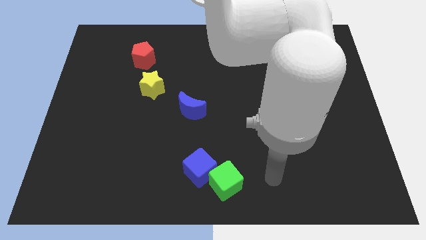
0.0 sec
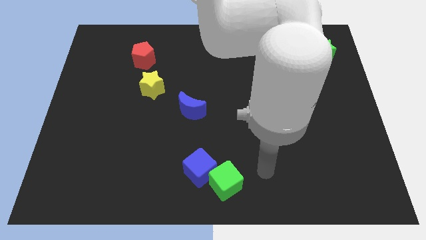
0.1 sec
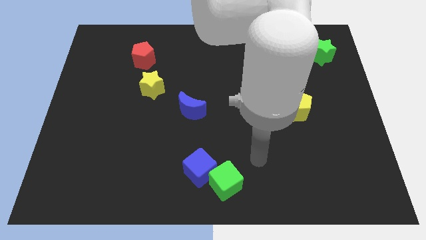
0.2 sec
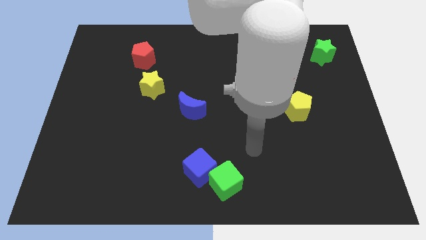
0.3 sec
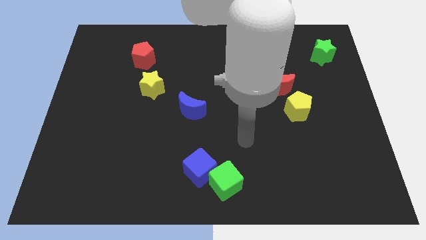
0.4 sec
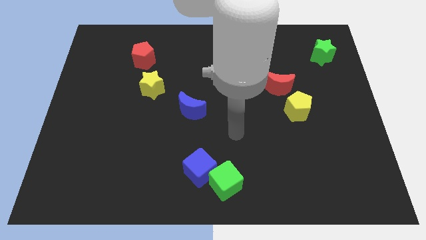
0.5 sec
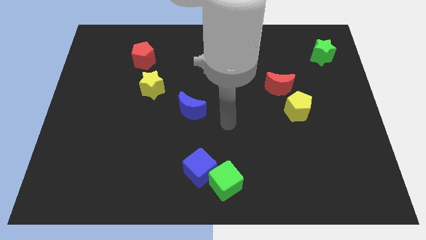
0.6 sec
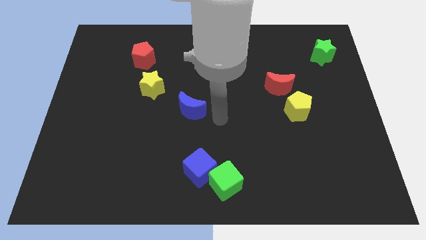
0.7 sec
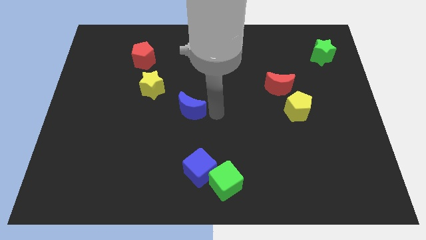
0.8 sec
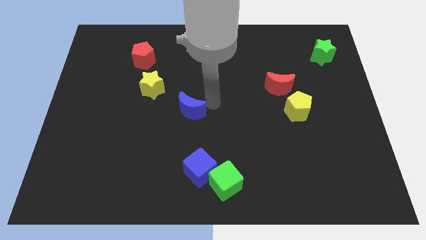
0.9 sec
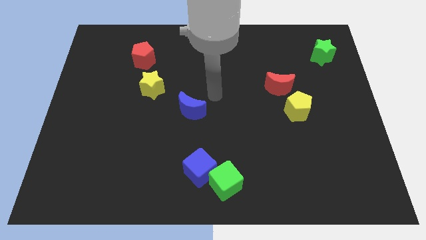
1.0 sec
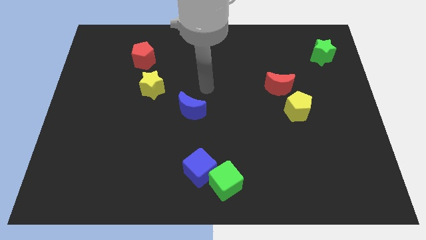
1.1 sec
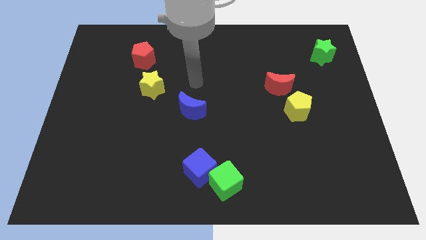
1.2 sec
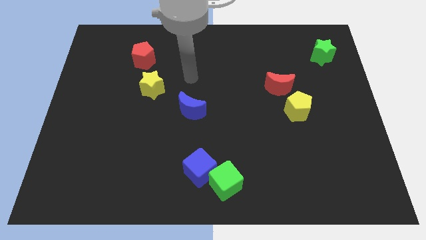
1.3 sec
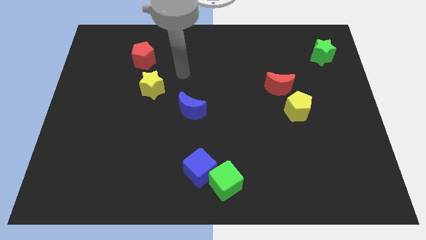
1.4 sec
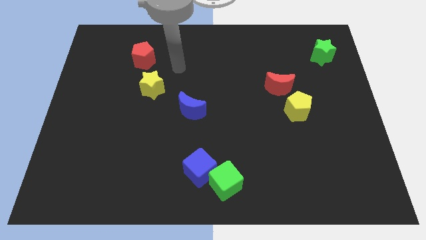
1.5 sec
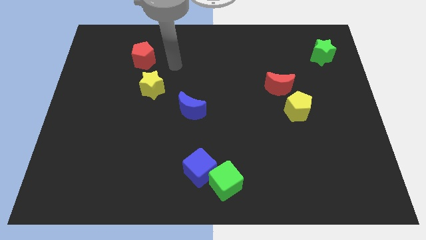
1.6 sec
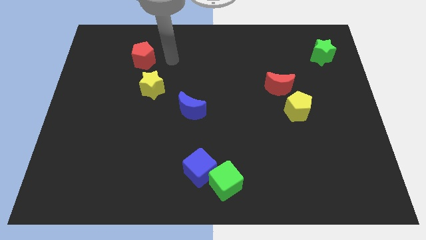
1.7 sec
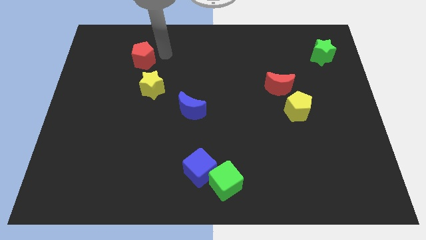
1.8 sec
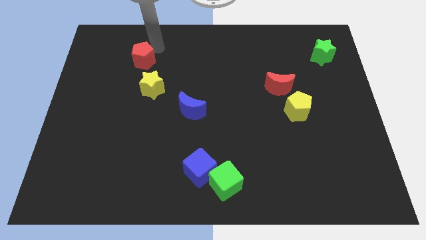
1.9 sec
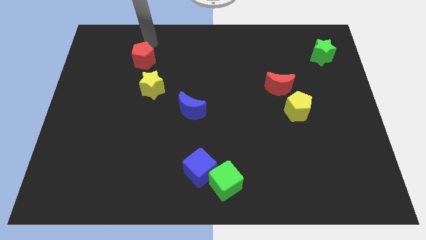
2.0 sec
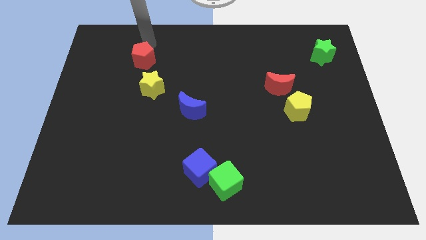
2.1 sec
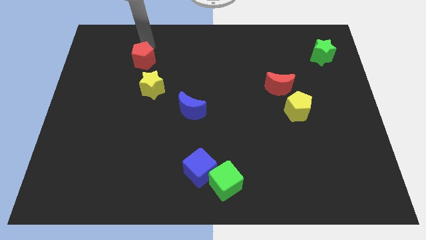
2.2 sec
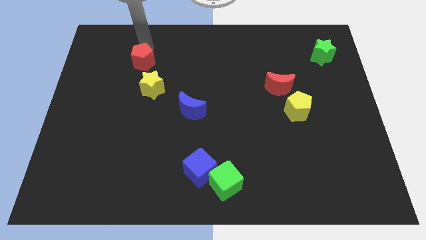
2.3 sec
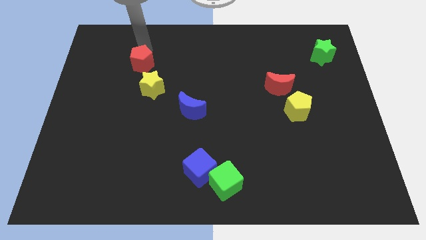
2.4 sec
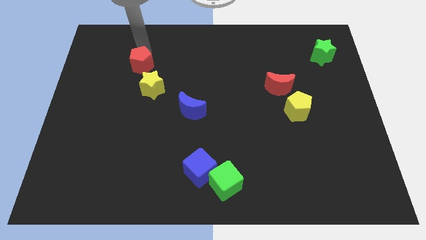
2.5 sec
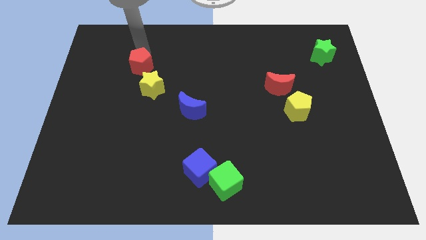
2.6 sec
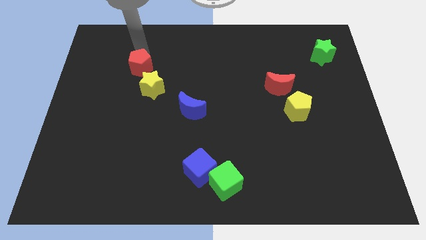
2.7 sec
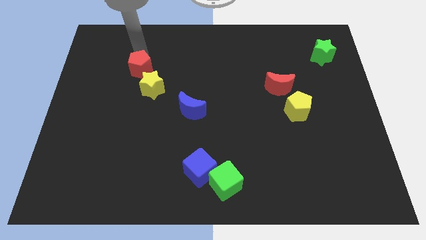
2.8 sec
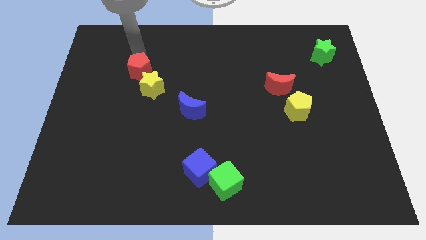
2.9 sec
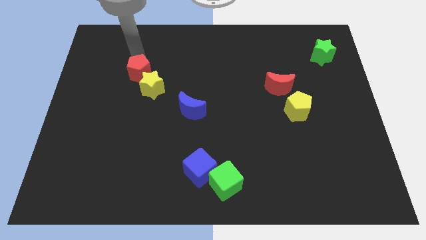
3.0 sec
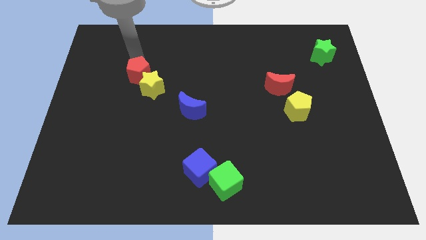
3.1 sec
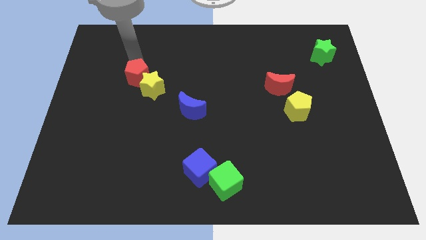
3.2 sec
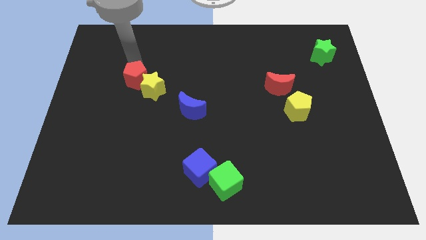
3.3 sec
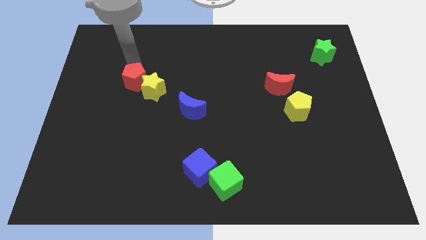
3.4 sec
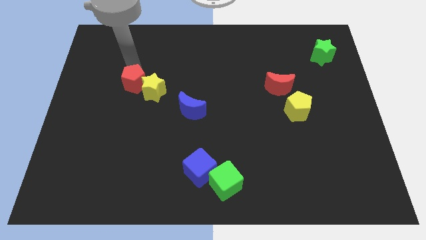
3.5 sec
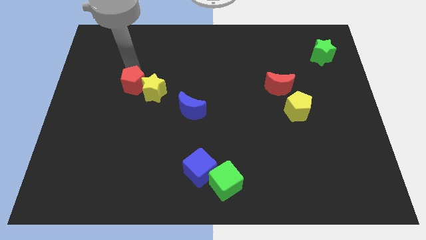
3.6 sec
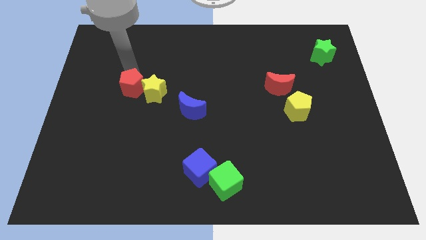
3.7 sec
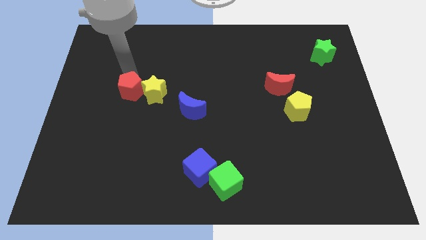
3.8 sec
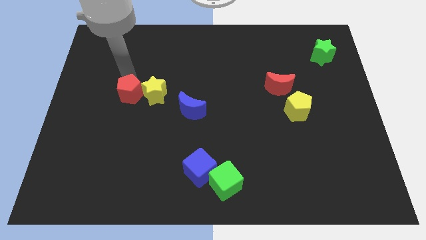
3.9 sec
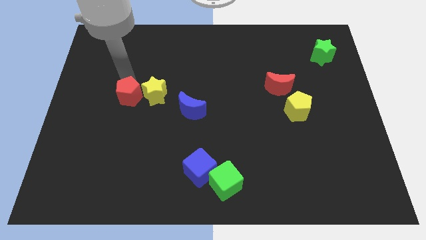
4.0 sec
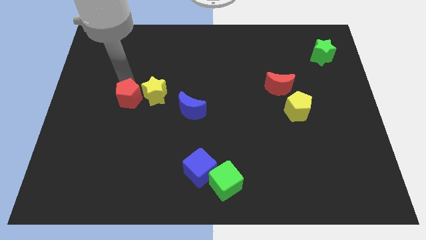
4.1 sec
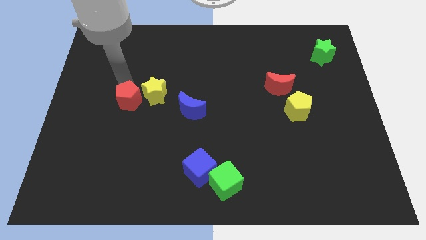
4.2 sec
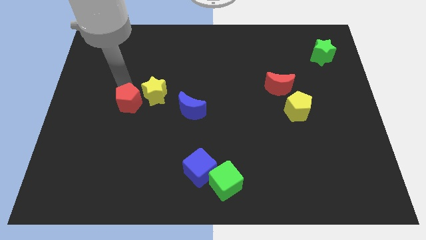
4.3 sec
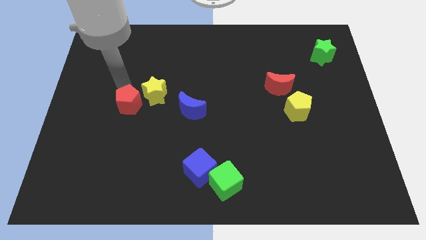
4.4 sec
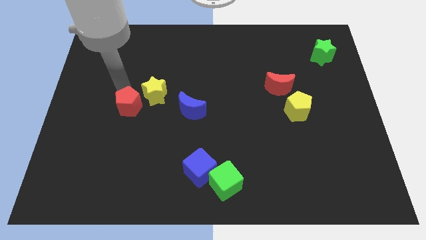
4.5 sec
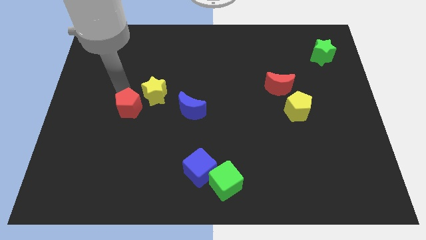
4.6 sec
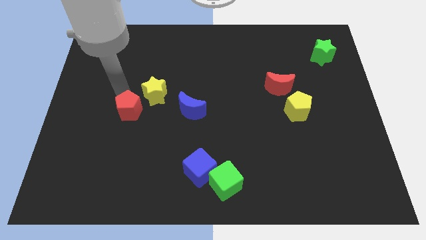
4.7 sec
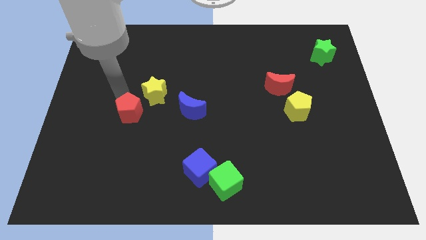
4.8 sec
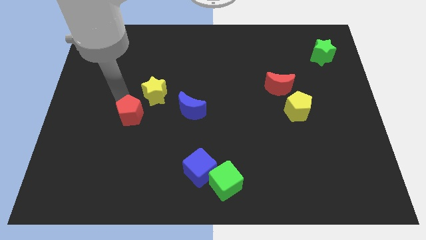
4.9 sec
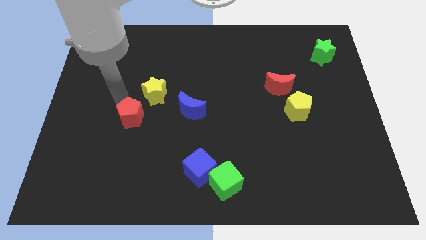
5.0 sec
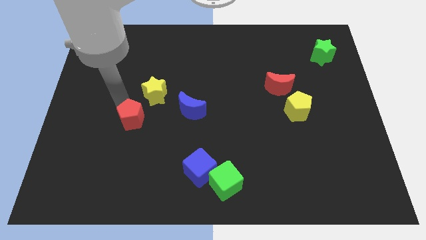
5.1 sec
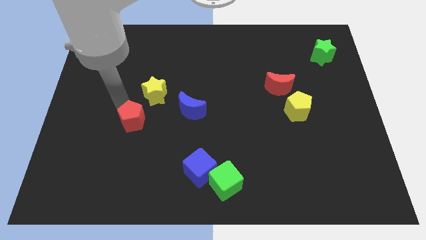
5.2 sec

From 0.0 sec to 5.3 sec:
push the red pentagon downwards

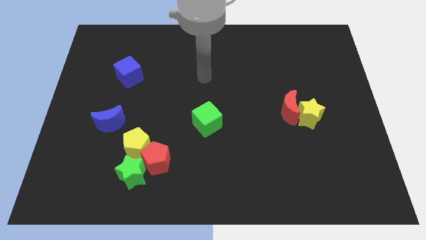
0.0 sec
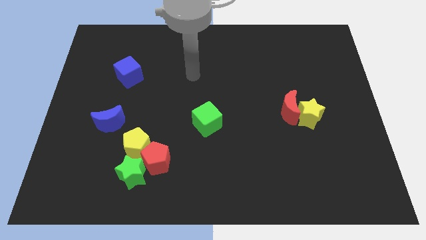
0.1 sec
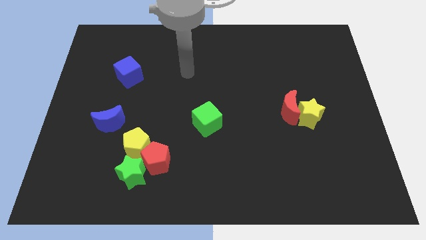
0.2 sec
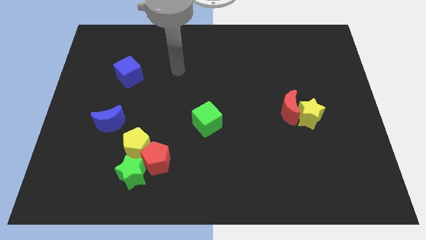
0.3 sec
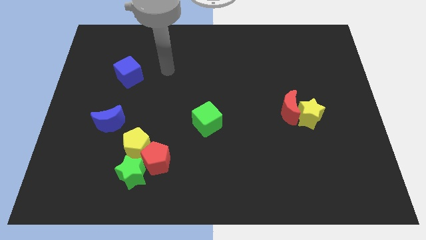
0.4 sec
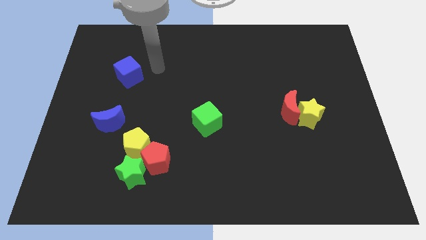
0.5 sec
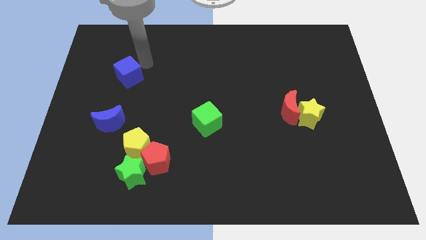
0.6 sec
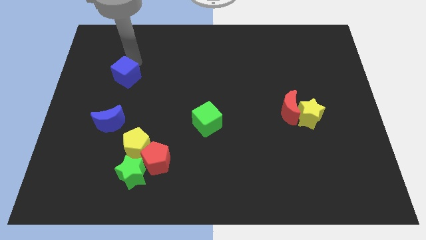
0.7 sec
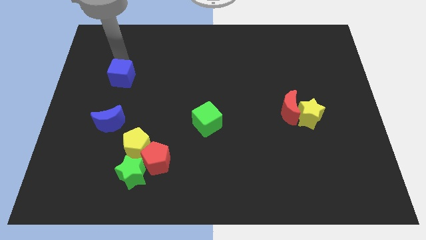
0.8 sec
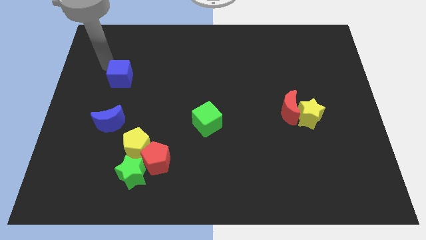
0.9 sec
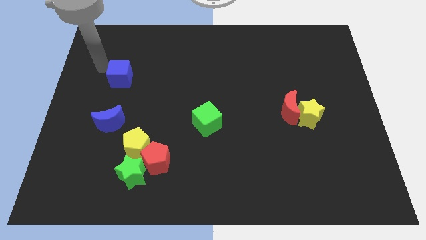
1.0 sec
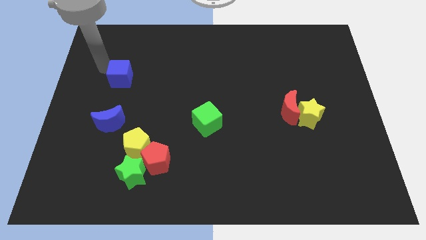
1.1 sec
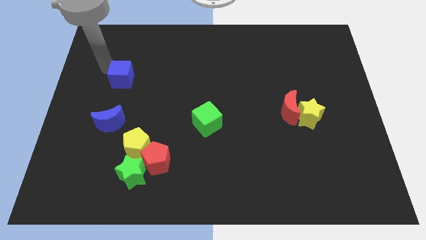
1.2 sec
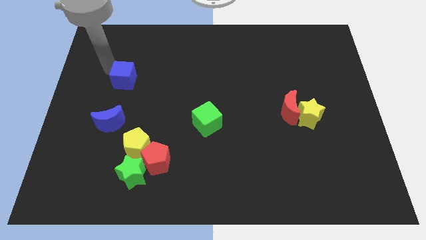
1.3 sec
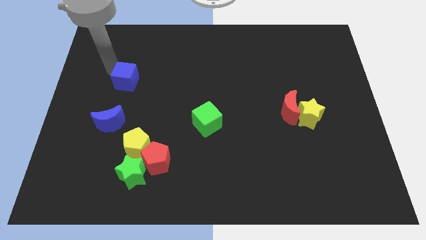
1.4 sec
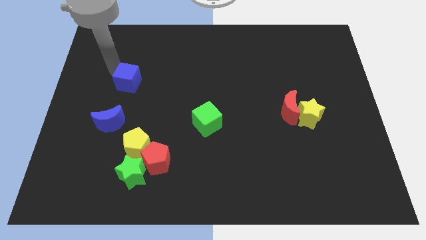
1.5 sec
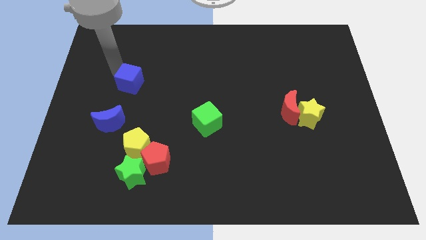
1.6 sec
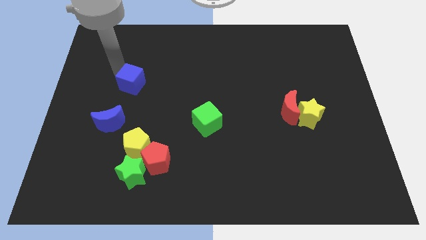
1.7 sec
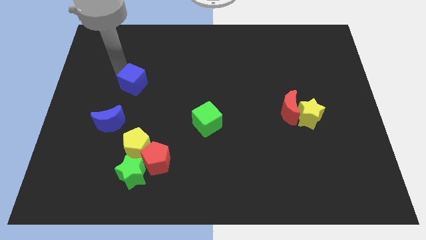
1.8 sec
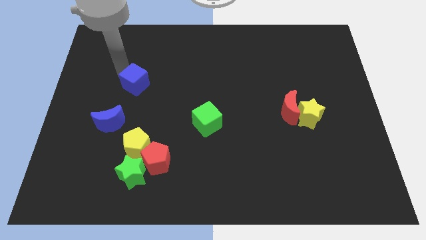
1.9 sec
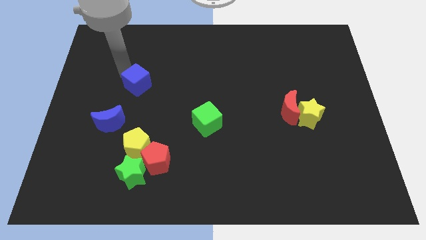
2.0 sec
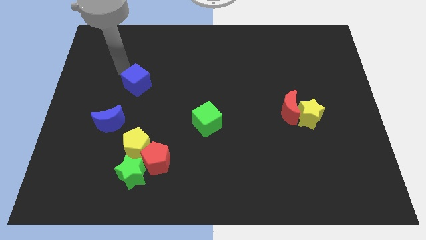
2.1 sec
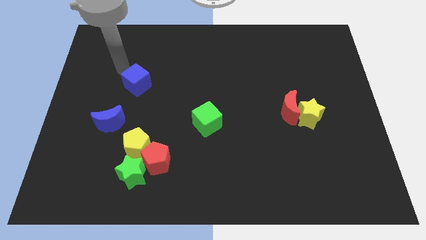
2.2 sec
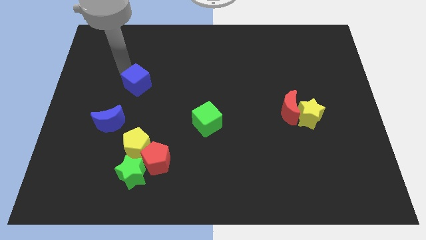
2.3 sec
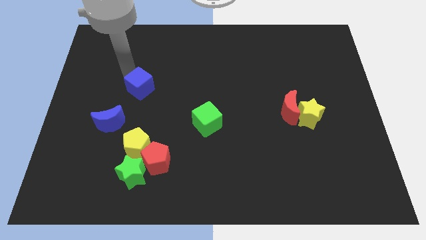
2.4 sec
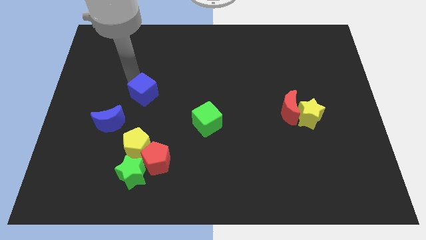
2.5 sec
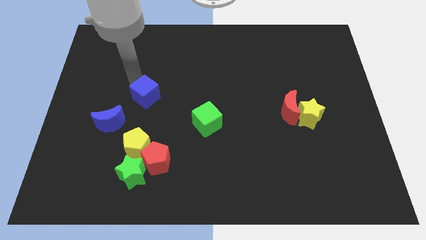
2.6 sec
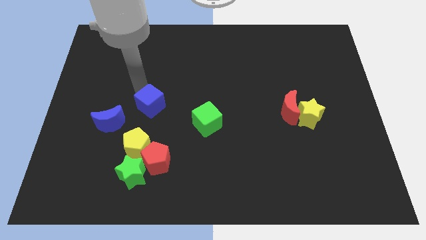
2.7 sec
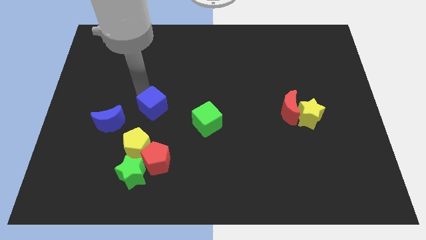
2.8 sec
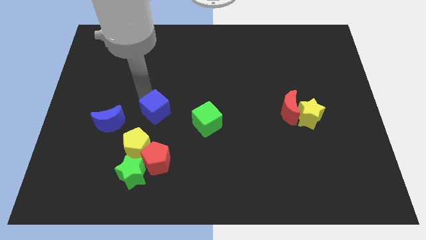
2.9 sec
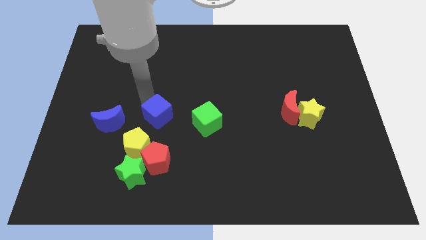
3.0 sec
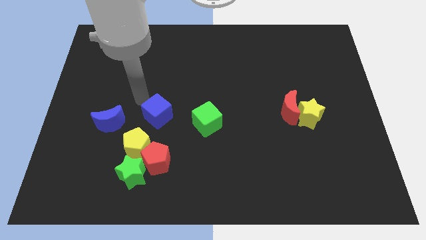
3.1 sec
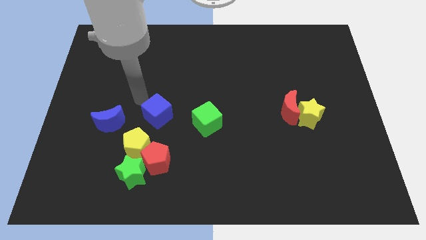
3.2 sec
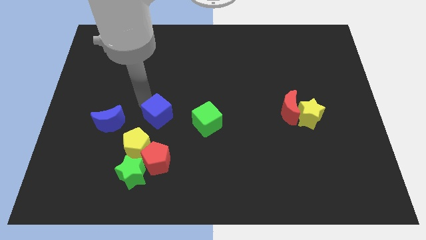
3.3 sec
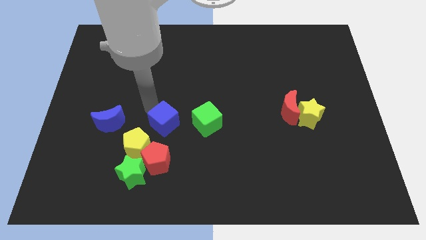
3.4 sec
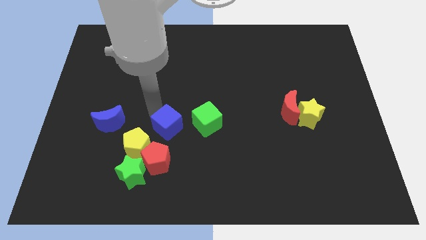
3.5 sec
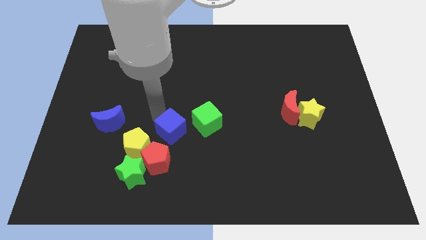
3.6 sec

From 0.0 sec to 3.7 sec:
push the blue cube downwards and right
